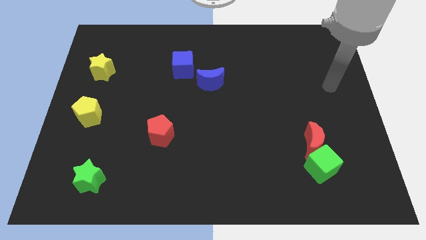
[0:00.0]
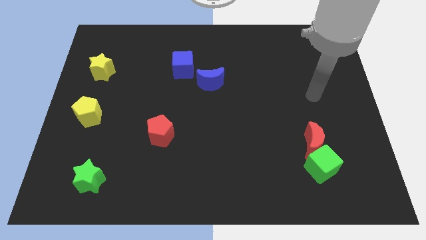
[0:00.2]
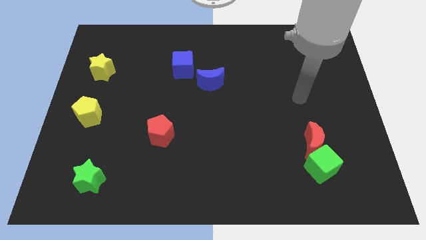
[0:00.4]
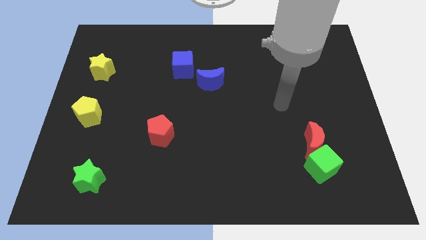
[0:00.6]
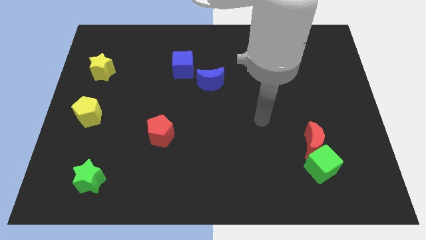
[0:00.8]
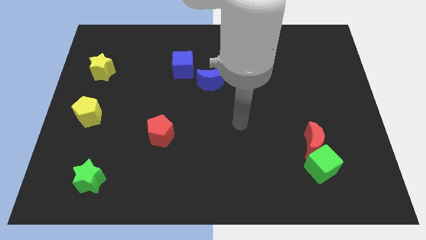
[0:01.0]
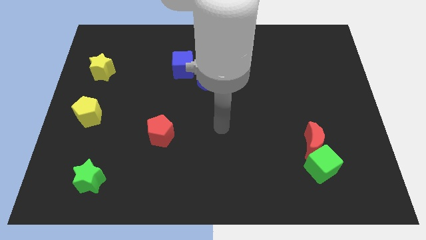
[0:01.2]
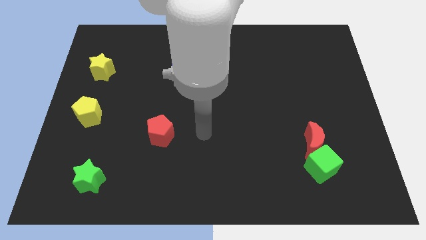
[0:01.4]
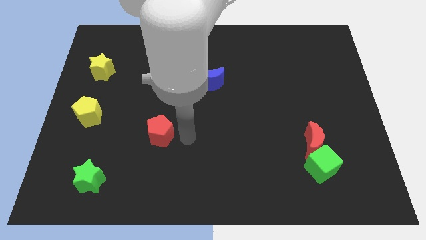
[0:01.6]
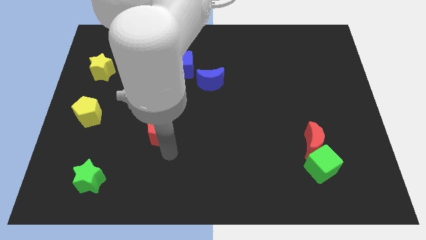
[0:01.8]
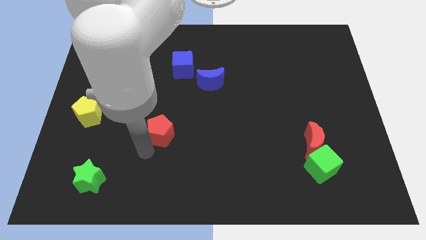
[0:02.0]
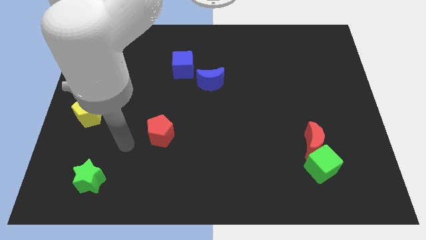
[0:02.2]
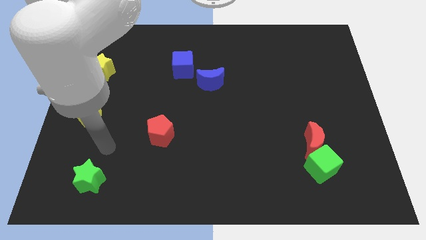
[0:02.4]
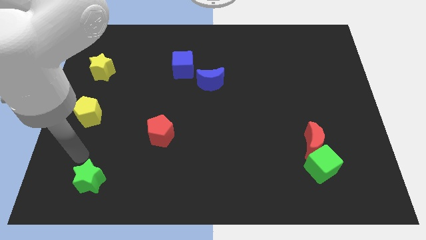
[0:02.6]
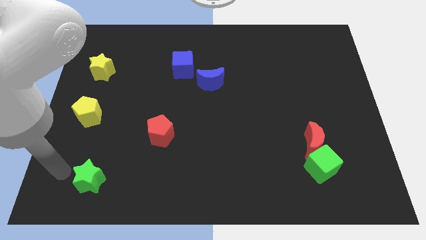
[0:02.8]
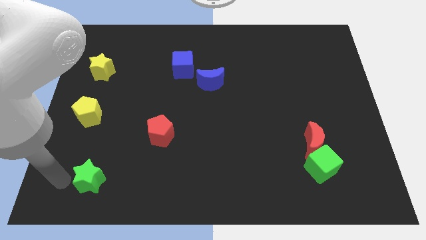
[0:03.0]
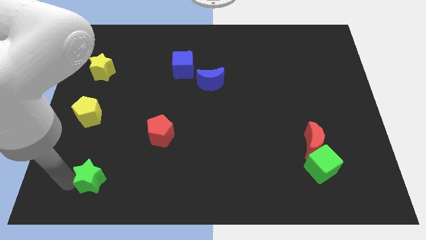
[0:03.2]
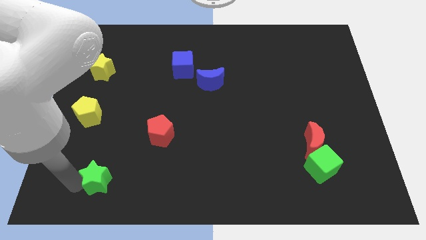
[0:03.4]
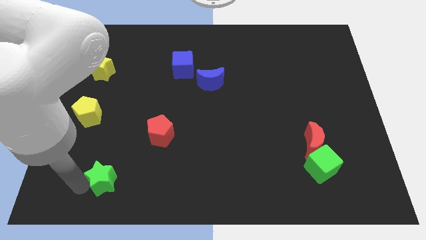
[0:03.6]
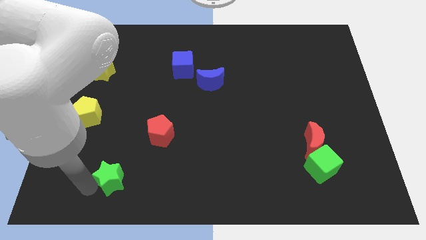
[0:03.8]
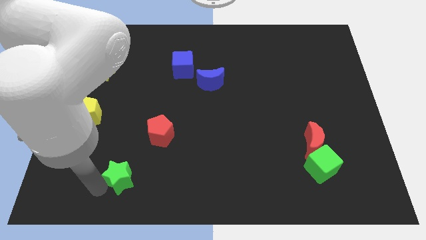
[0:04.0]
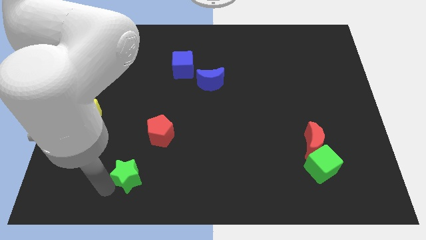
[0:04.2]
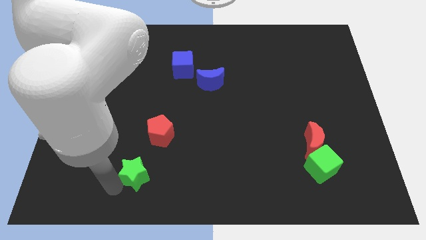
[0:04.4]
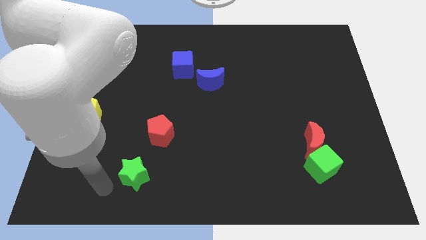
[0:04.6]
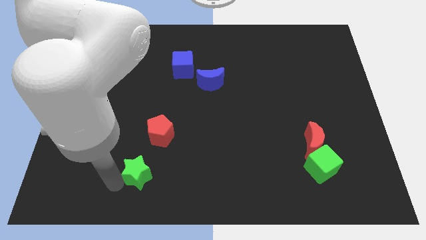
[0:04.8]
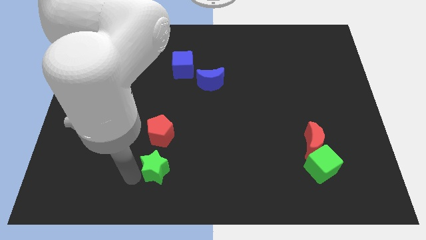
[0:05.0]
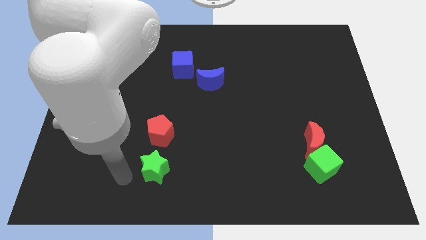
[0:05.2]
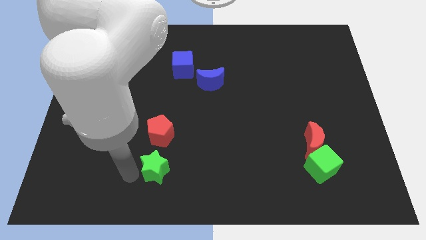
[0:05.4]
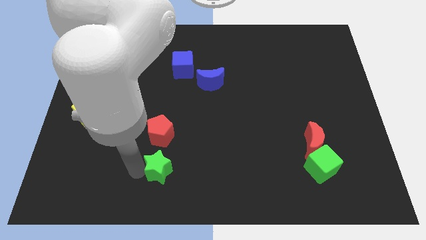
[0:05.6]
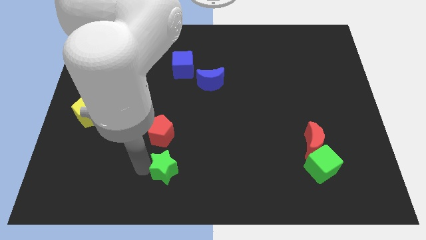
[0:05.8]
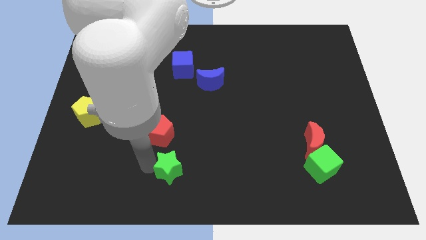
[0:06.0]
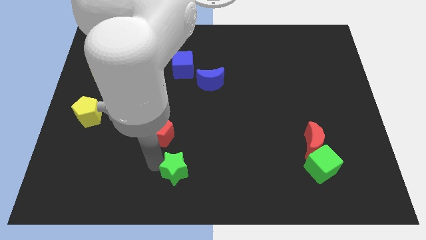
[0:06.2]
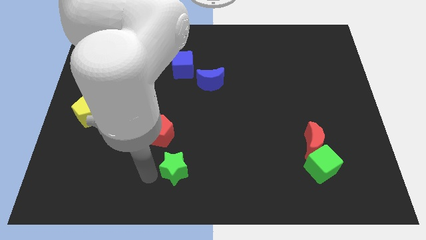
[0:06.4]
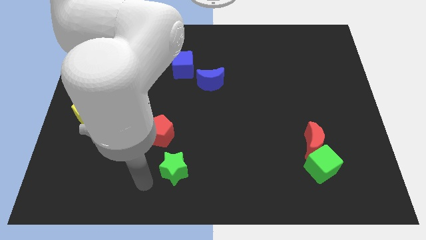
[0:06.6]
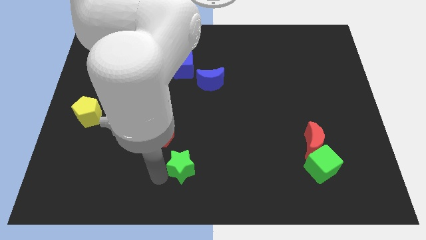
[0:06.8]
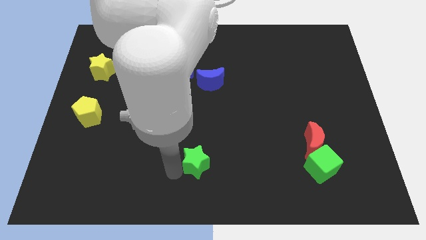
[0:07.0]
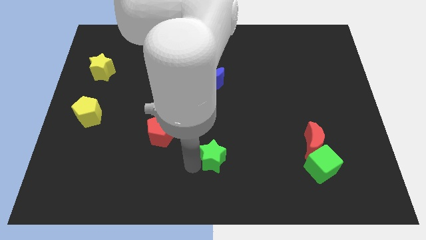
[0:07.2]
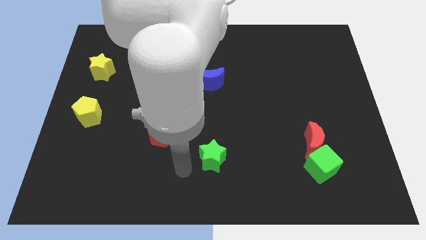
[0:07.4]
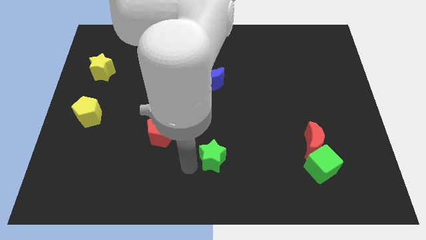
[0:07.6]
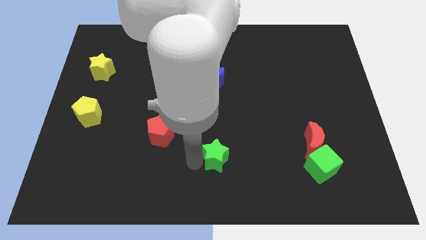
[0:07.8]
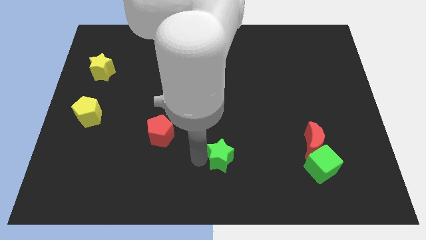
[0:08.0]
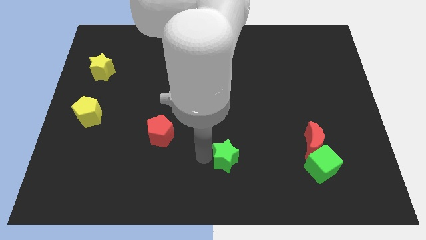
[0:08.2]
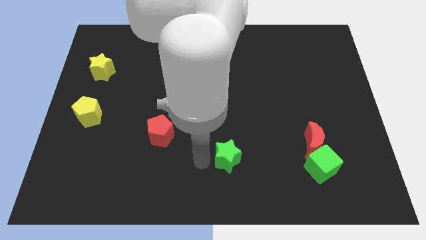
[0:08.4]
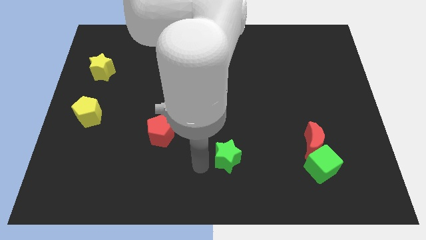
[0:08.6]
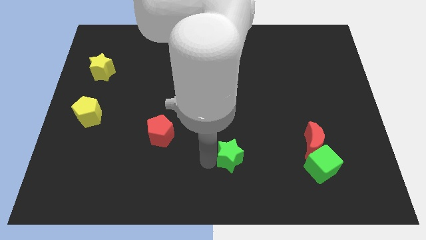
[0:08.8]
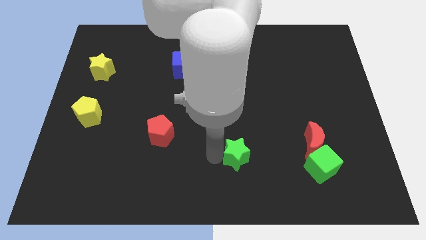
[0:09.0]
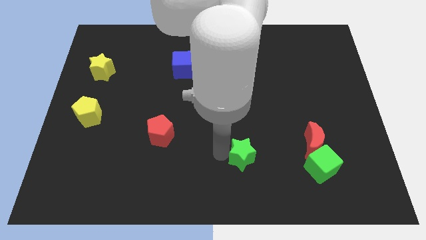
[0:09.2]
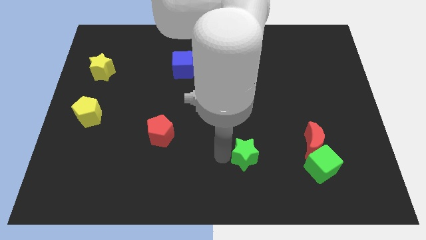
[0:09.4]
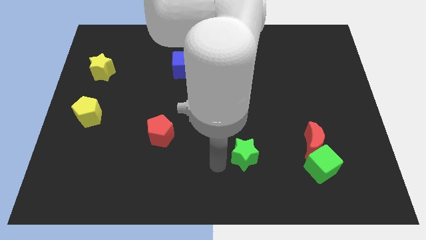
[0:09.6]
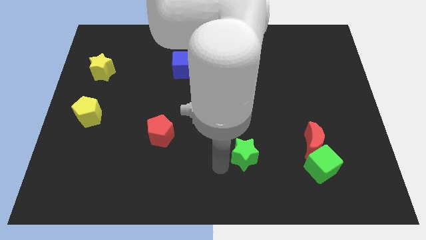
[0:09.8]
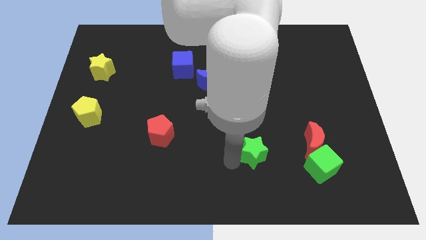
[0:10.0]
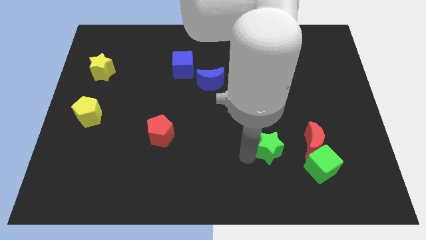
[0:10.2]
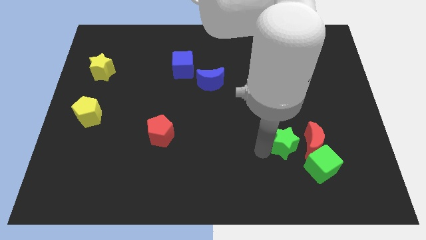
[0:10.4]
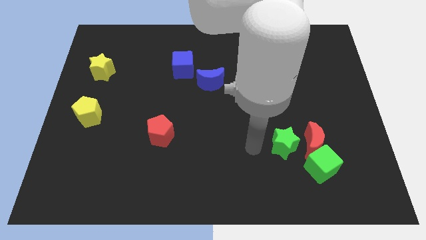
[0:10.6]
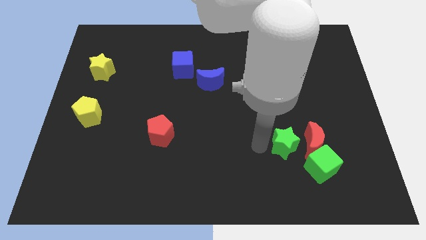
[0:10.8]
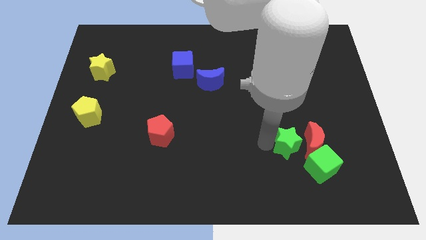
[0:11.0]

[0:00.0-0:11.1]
move the green star towards the red moon

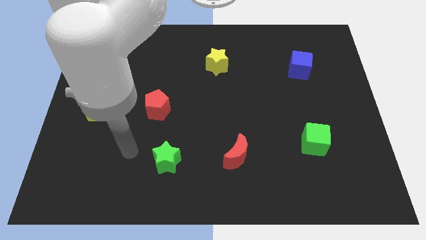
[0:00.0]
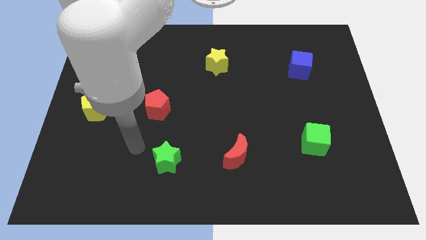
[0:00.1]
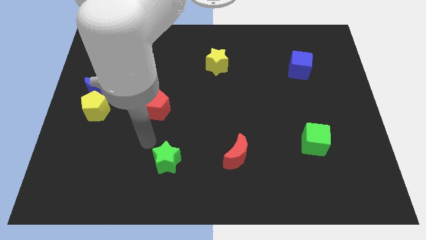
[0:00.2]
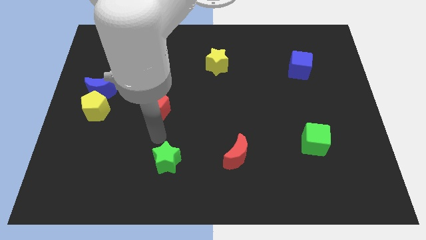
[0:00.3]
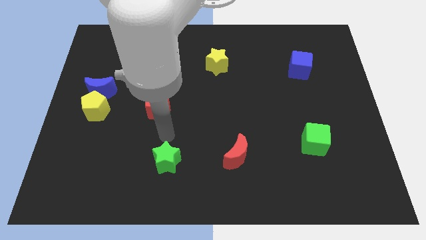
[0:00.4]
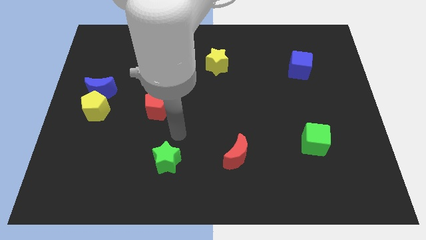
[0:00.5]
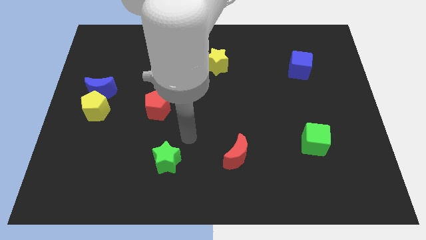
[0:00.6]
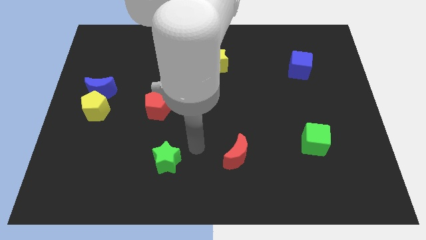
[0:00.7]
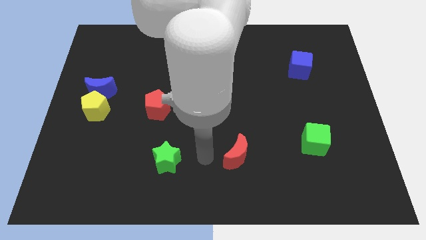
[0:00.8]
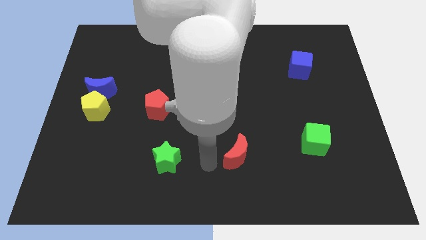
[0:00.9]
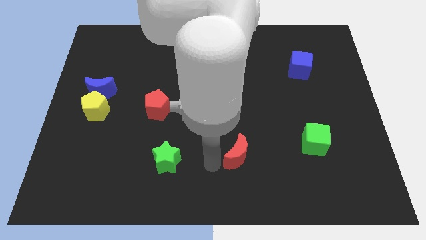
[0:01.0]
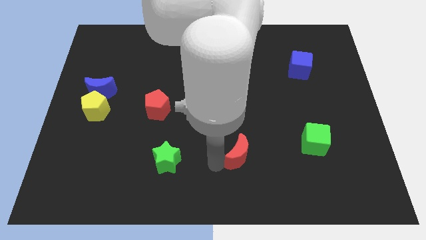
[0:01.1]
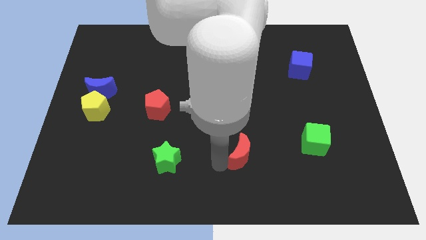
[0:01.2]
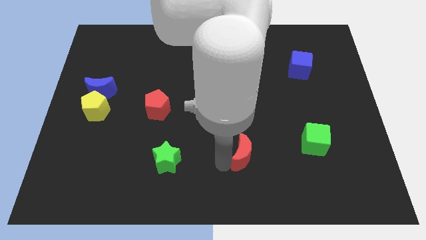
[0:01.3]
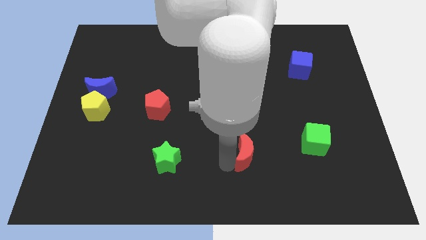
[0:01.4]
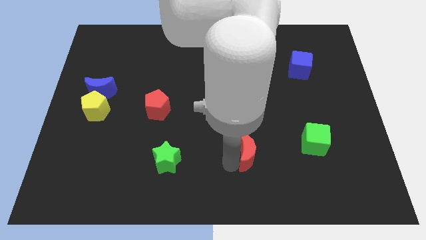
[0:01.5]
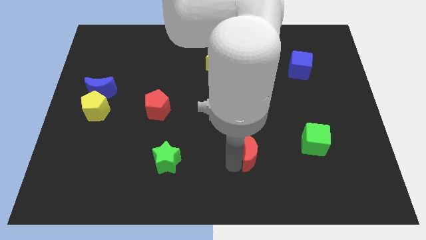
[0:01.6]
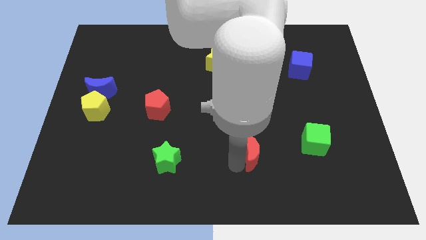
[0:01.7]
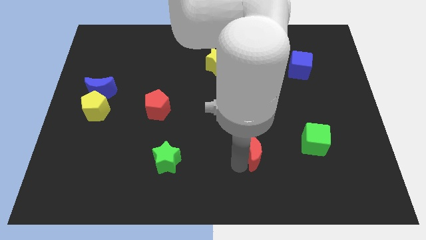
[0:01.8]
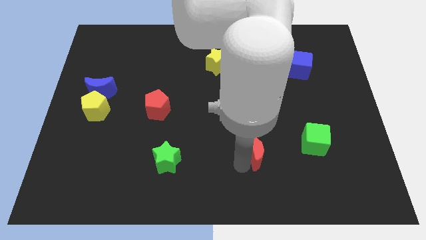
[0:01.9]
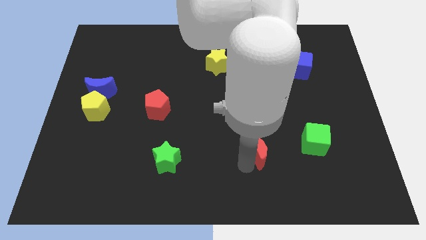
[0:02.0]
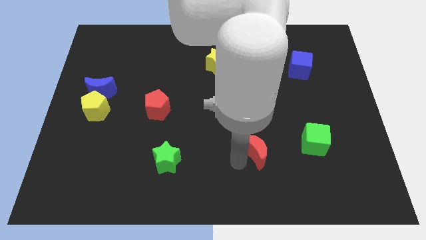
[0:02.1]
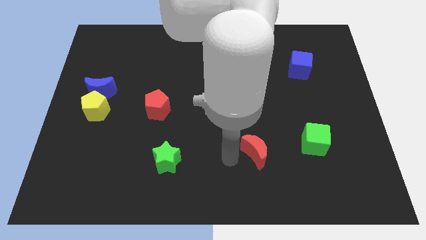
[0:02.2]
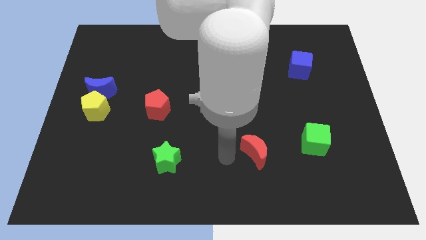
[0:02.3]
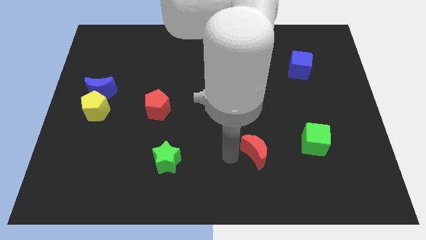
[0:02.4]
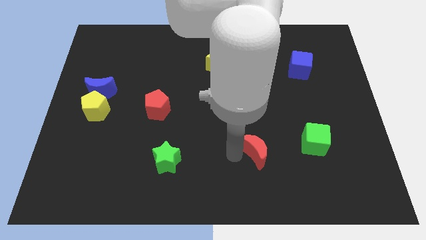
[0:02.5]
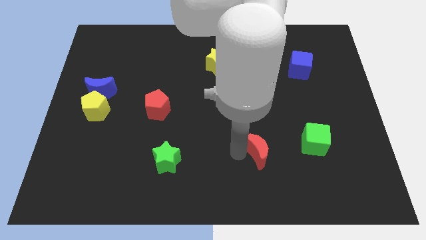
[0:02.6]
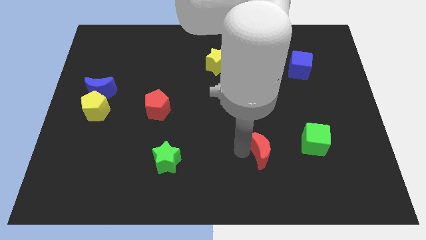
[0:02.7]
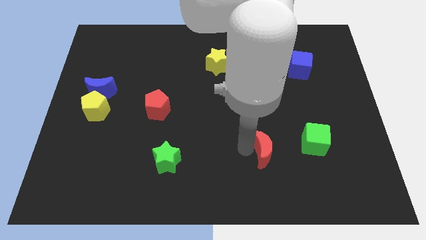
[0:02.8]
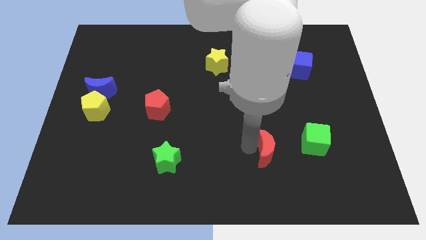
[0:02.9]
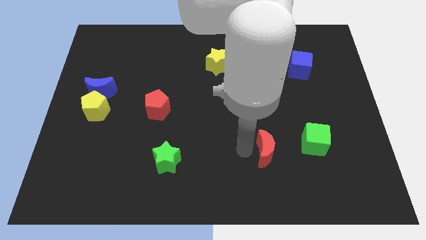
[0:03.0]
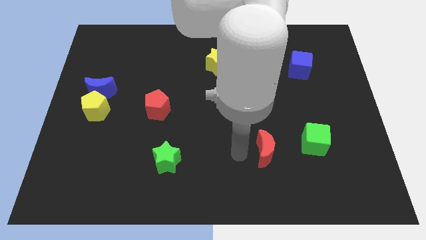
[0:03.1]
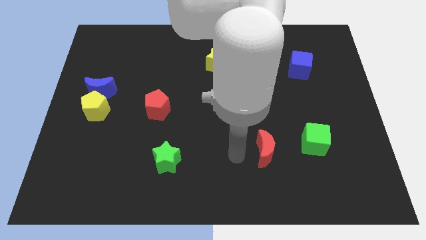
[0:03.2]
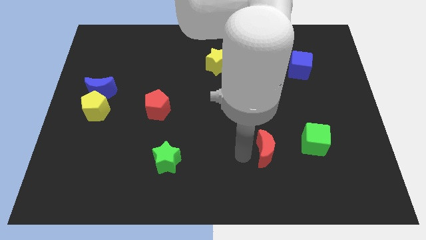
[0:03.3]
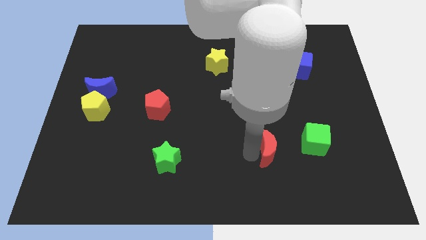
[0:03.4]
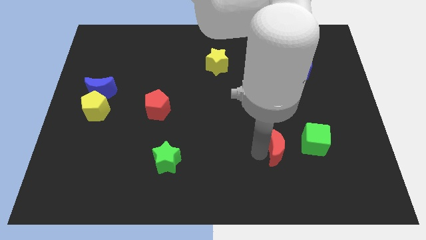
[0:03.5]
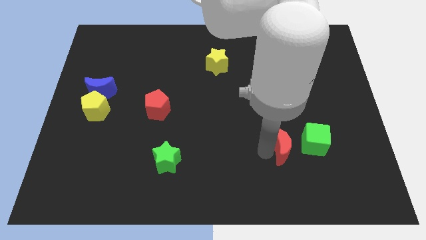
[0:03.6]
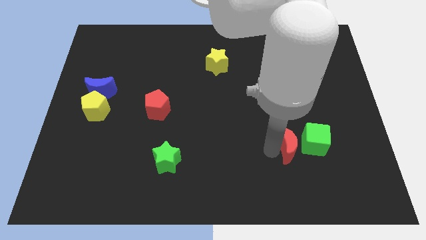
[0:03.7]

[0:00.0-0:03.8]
put the red moon to the green cube
